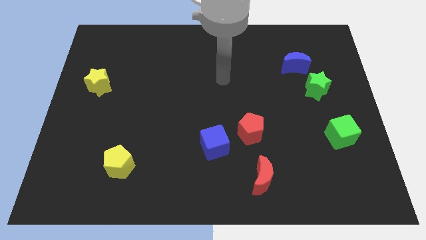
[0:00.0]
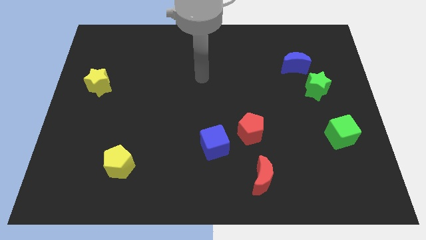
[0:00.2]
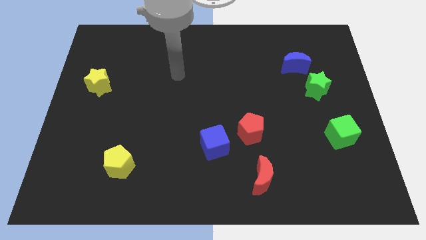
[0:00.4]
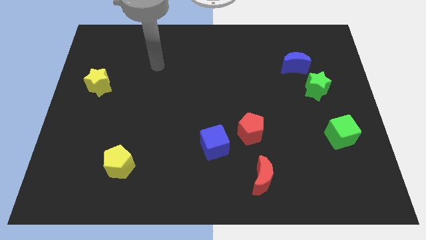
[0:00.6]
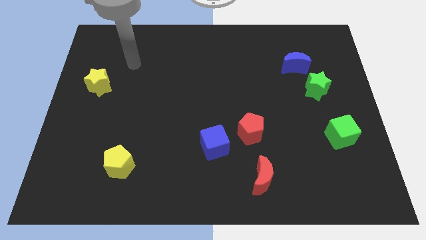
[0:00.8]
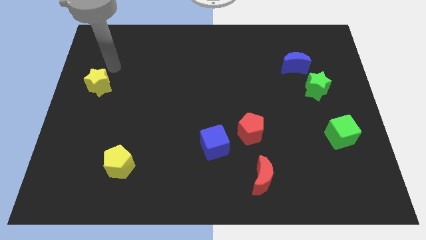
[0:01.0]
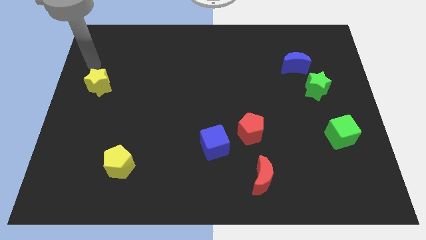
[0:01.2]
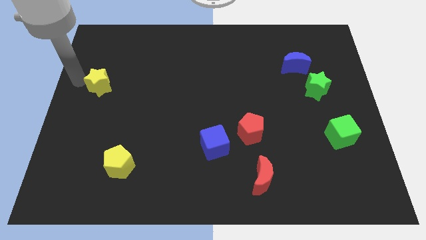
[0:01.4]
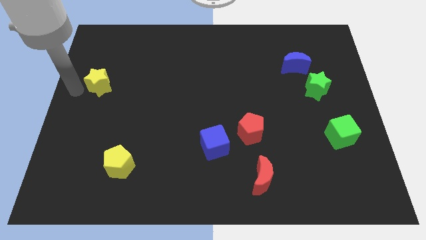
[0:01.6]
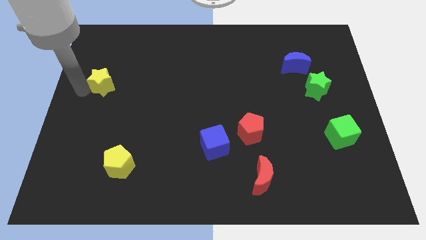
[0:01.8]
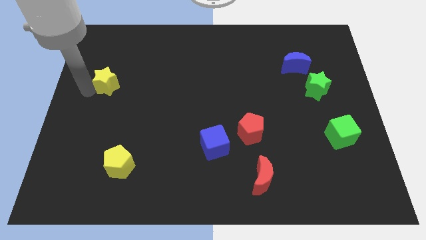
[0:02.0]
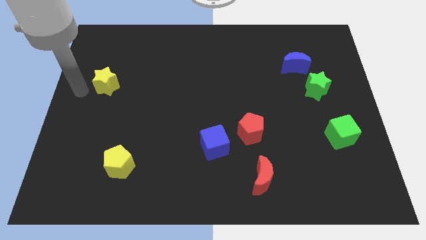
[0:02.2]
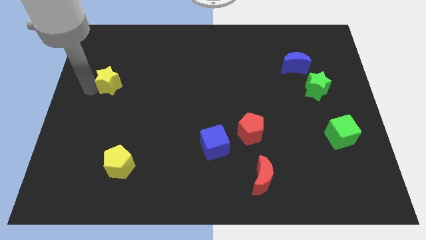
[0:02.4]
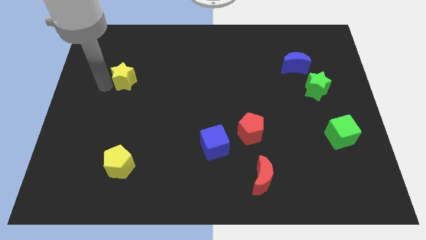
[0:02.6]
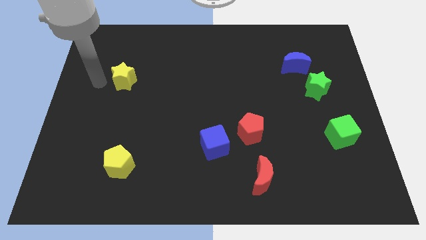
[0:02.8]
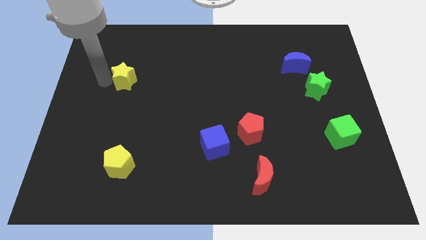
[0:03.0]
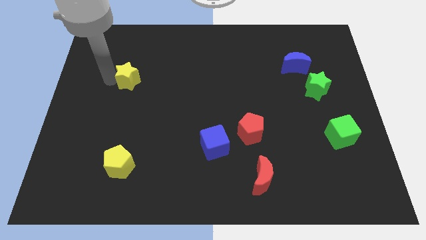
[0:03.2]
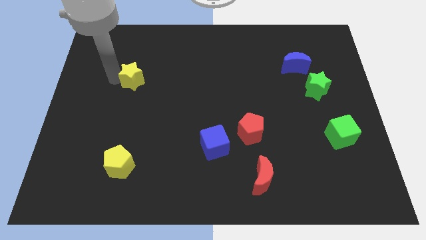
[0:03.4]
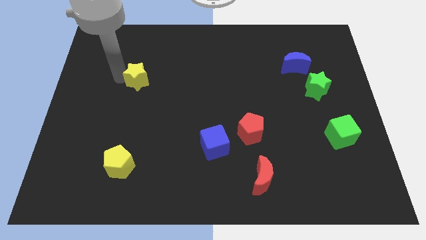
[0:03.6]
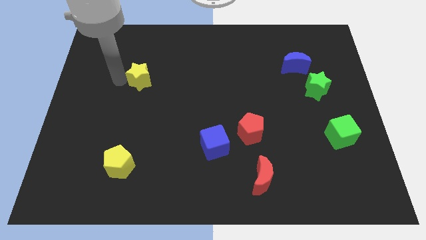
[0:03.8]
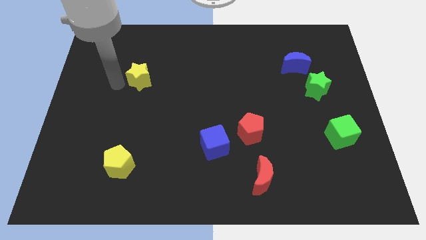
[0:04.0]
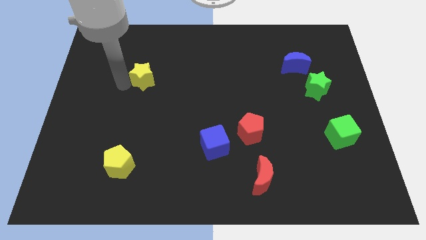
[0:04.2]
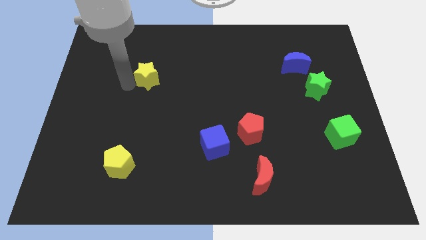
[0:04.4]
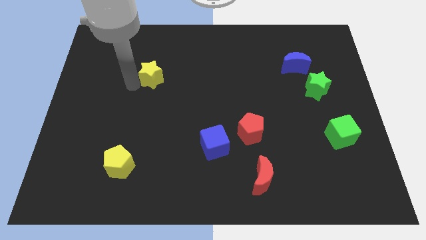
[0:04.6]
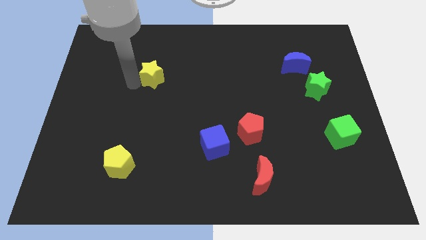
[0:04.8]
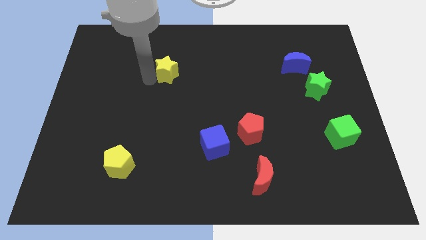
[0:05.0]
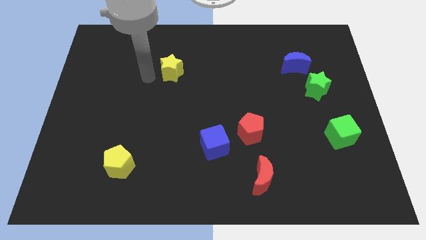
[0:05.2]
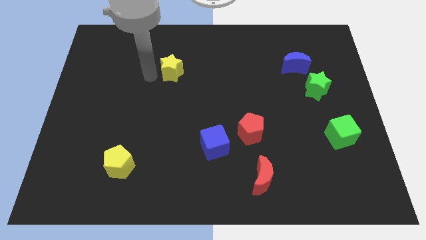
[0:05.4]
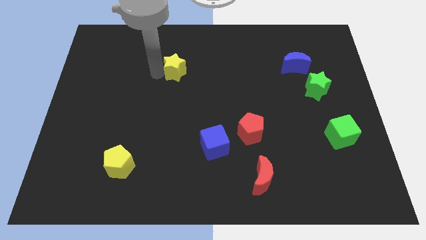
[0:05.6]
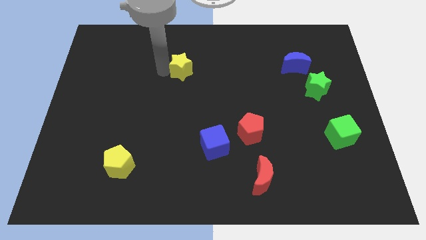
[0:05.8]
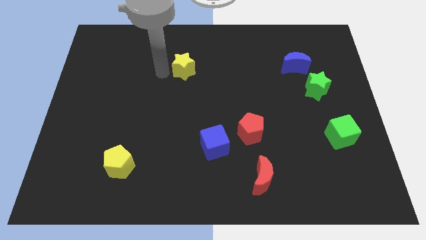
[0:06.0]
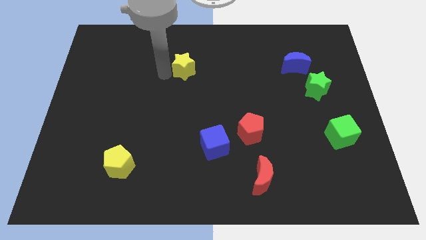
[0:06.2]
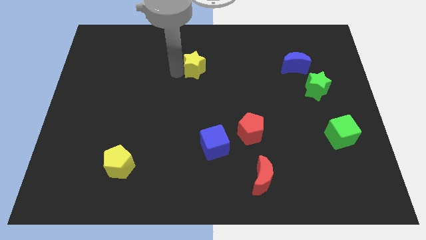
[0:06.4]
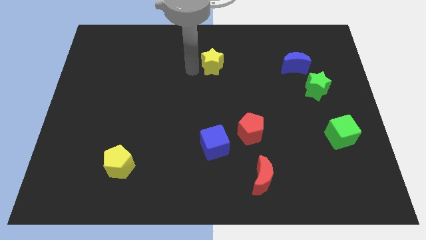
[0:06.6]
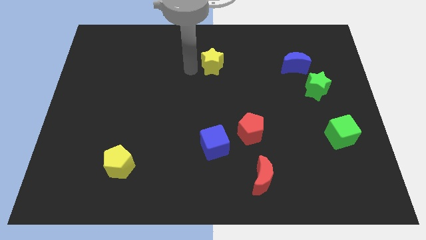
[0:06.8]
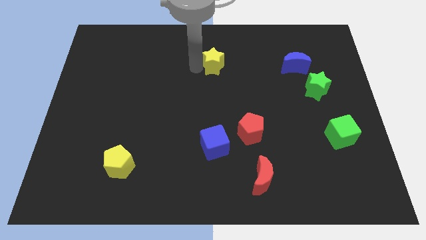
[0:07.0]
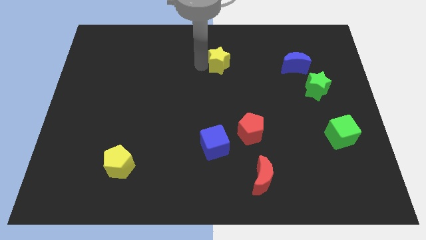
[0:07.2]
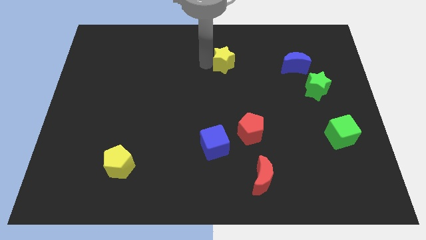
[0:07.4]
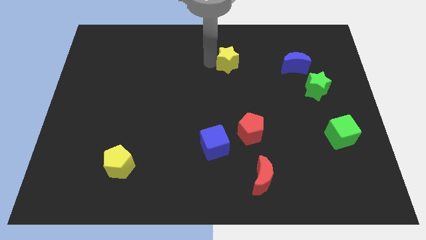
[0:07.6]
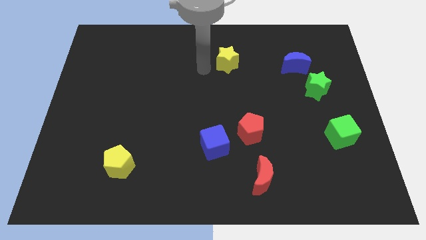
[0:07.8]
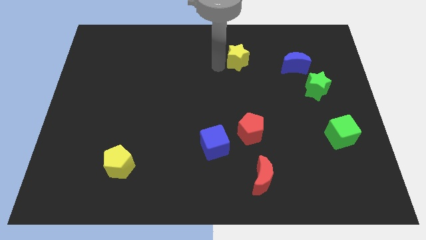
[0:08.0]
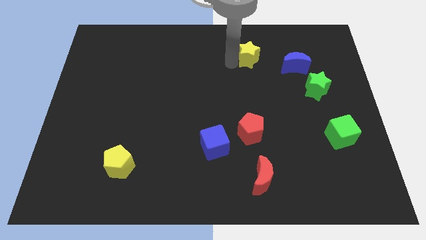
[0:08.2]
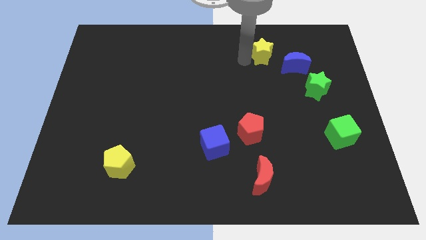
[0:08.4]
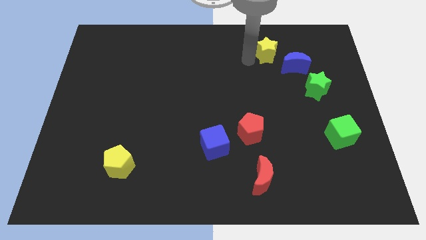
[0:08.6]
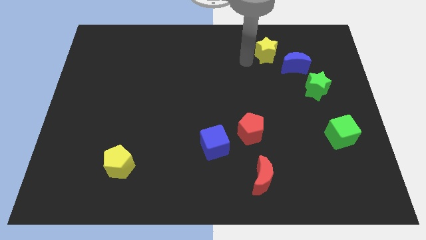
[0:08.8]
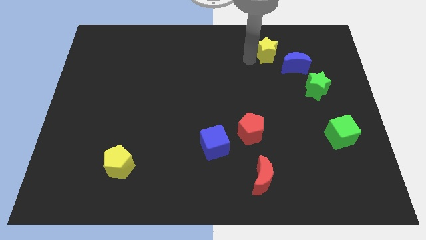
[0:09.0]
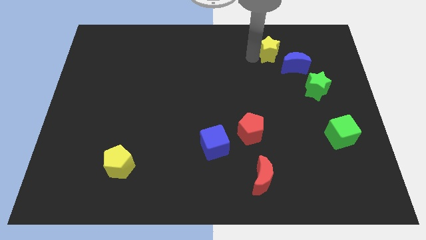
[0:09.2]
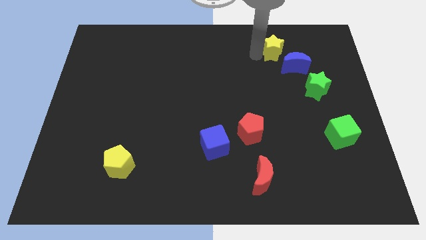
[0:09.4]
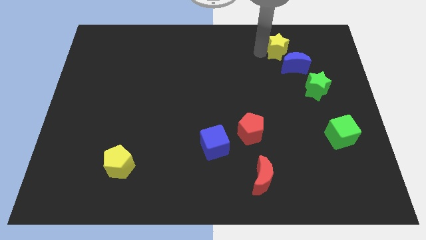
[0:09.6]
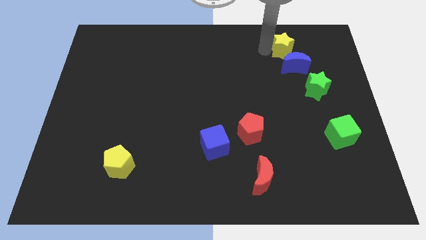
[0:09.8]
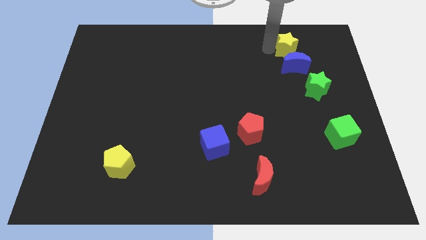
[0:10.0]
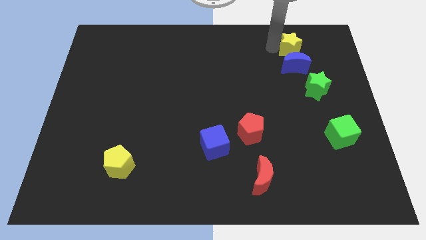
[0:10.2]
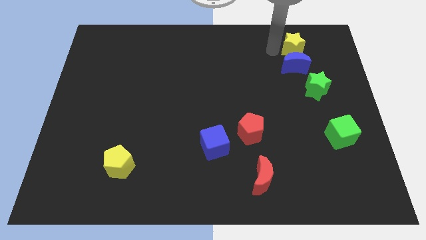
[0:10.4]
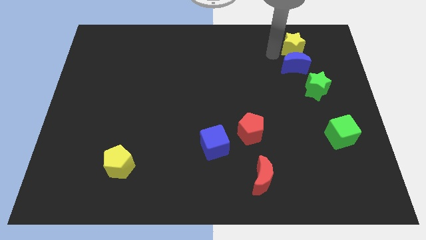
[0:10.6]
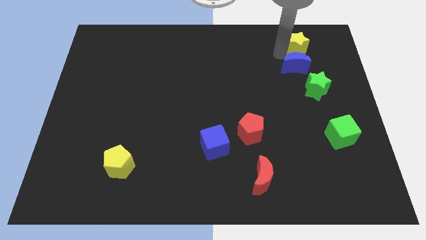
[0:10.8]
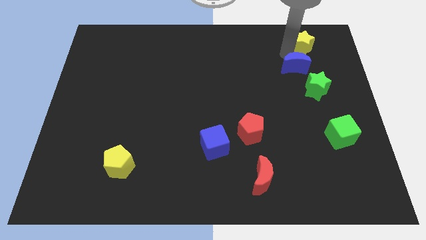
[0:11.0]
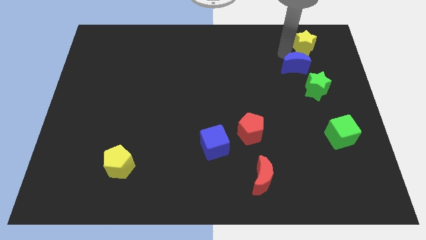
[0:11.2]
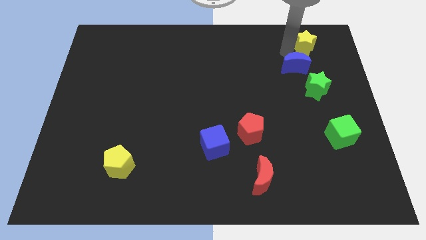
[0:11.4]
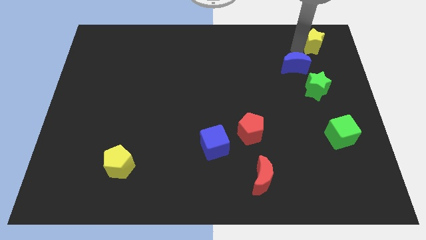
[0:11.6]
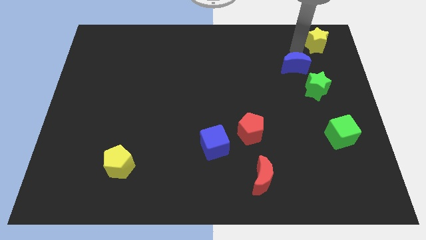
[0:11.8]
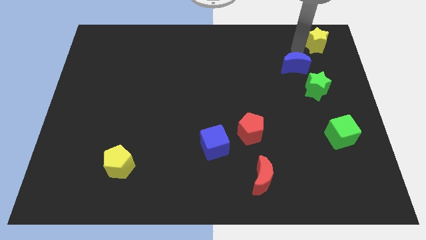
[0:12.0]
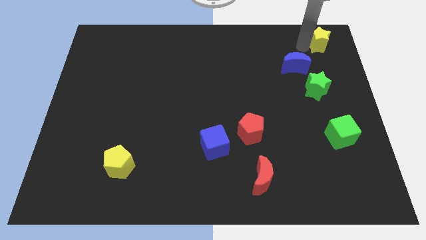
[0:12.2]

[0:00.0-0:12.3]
put the yellow star to the top right of the board
